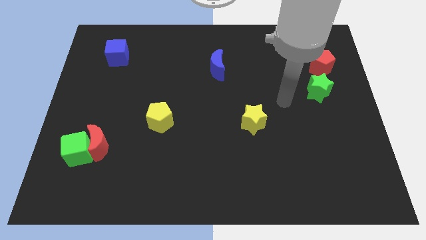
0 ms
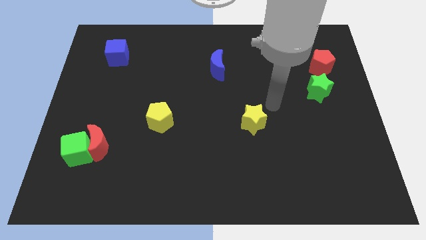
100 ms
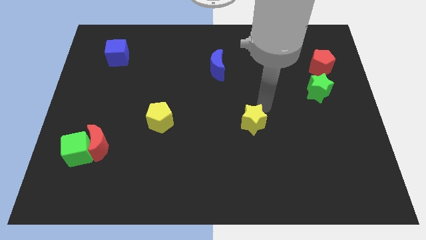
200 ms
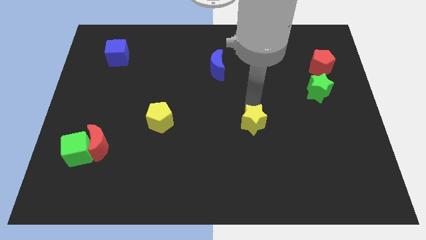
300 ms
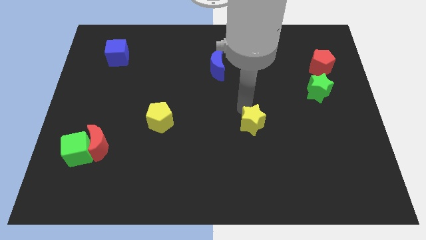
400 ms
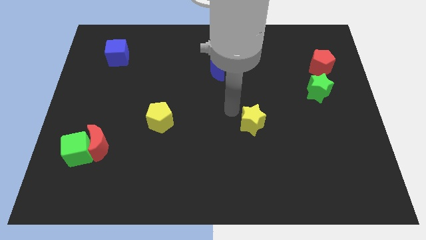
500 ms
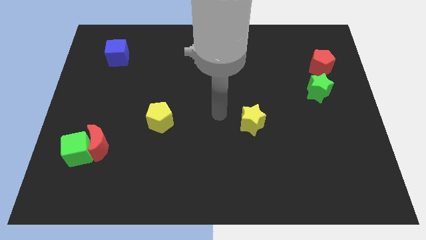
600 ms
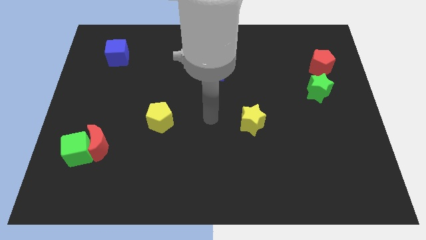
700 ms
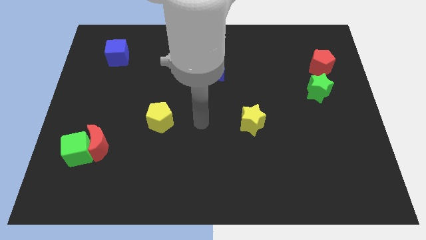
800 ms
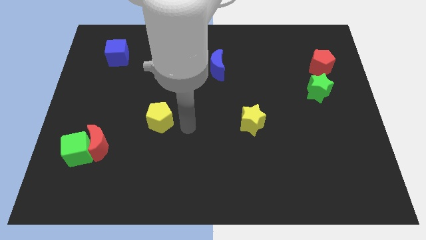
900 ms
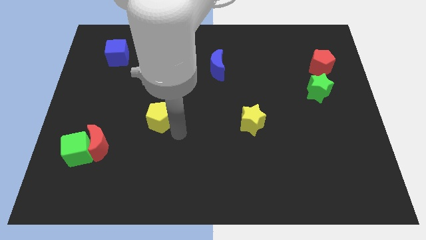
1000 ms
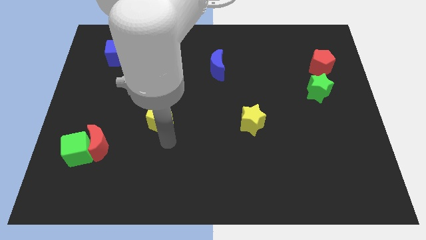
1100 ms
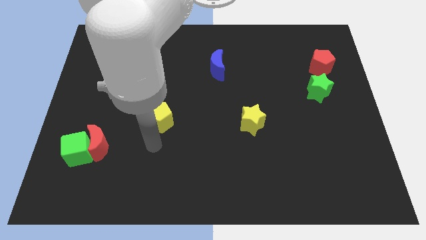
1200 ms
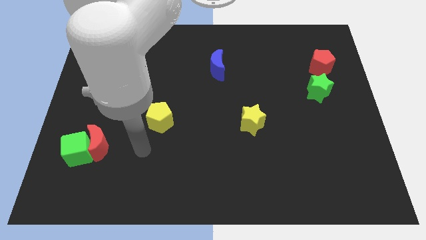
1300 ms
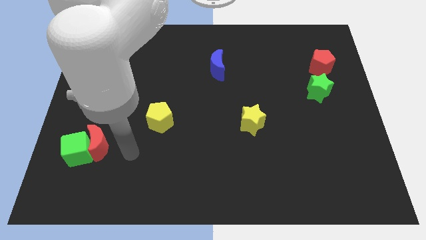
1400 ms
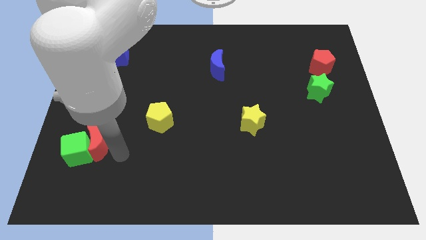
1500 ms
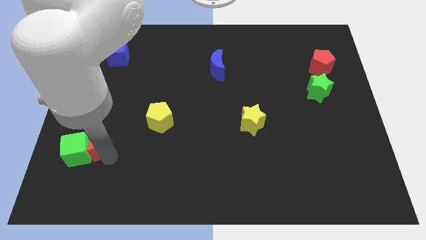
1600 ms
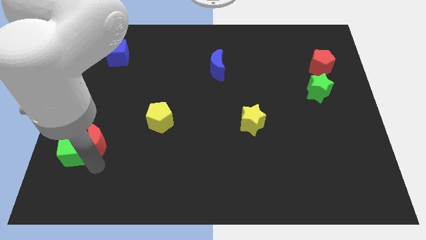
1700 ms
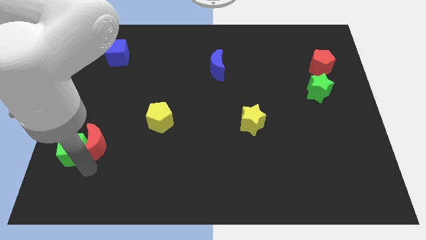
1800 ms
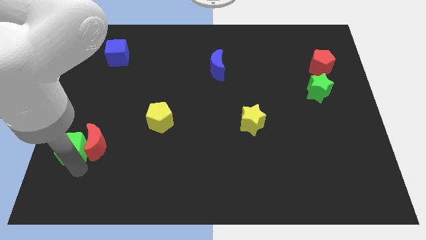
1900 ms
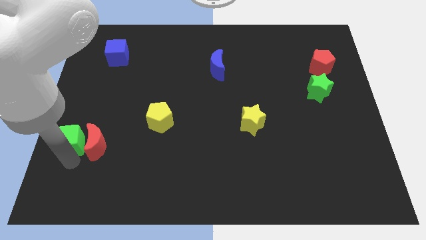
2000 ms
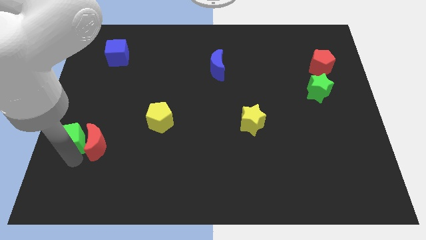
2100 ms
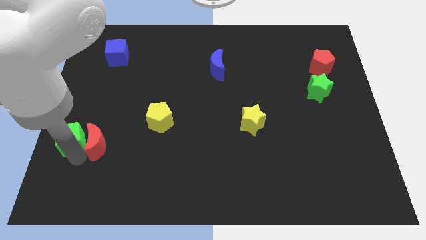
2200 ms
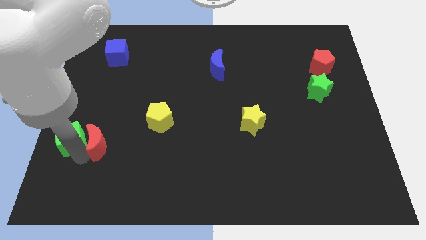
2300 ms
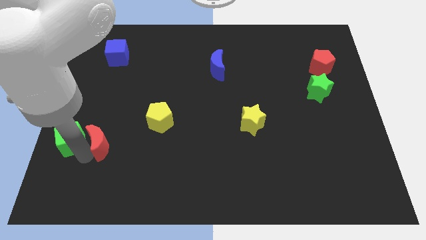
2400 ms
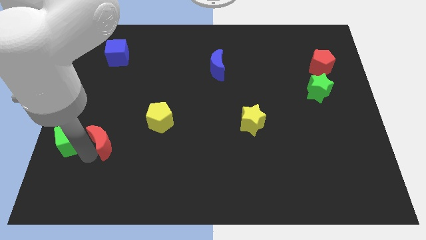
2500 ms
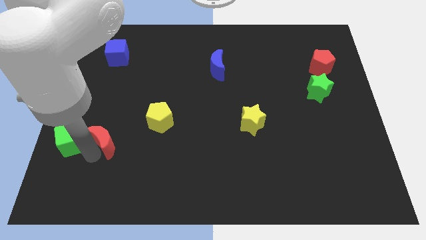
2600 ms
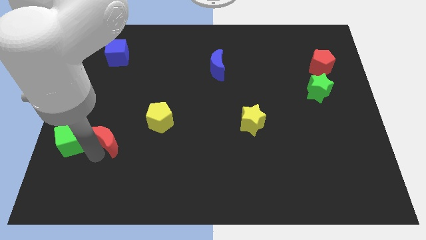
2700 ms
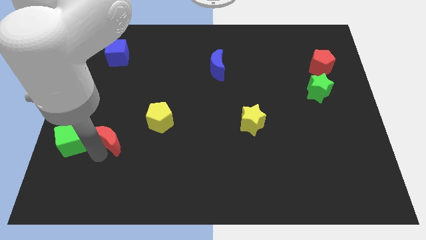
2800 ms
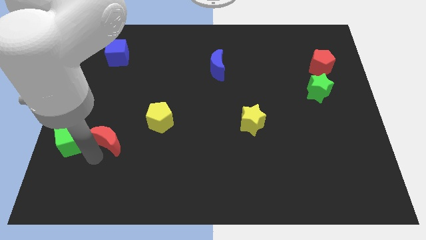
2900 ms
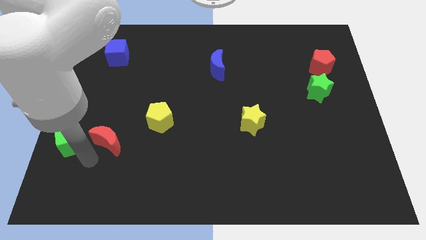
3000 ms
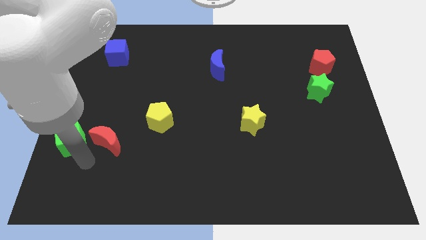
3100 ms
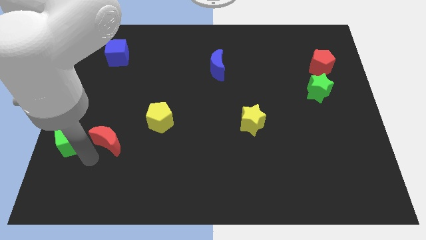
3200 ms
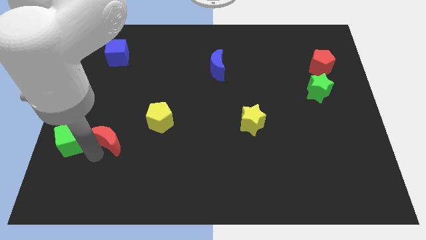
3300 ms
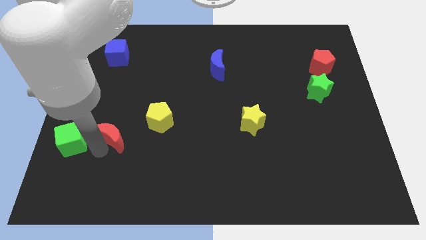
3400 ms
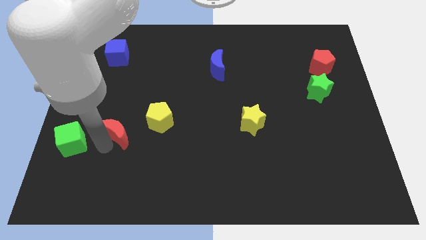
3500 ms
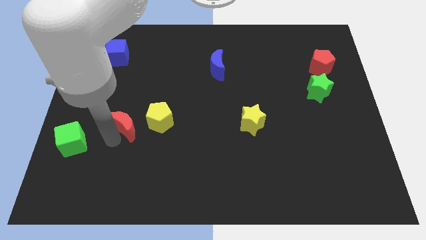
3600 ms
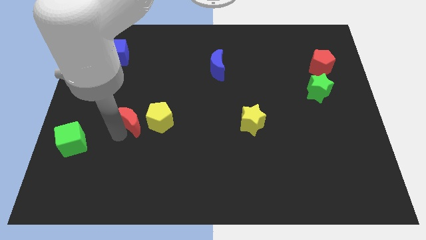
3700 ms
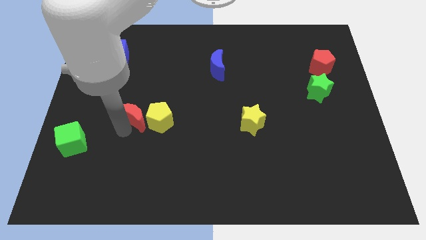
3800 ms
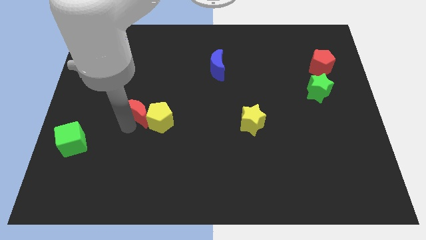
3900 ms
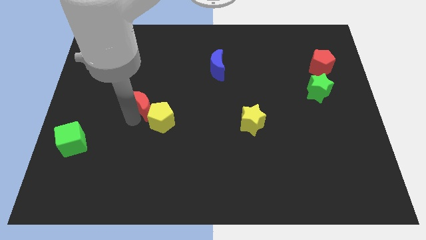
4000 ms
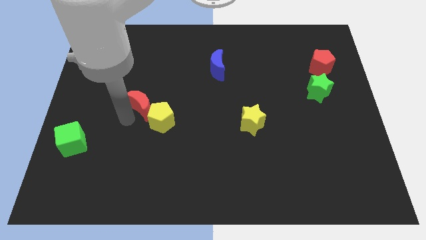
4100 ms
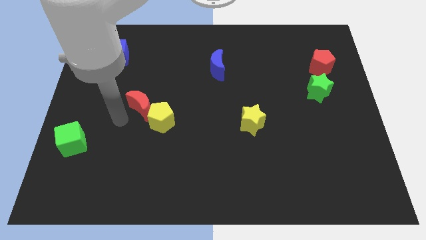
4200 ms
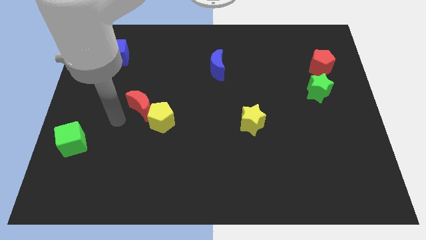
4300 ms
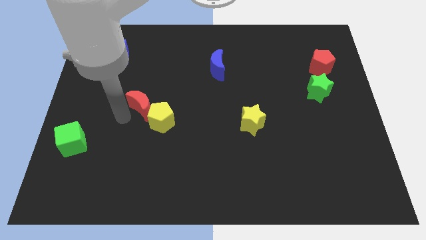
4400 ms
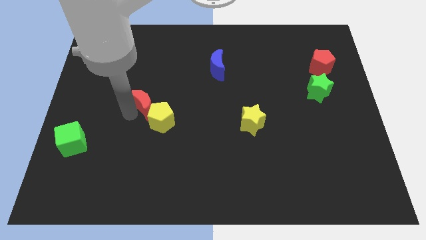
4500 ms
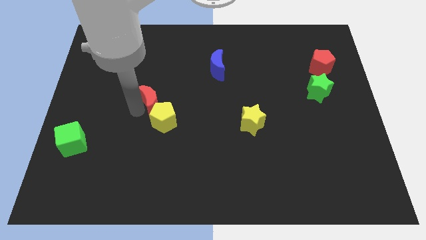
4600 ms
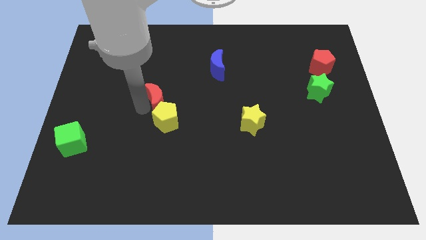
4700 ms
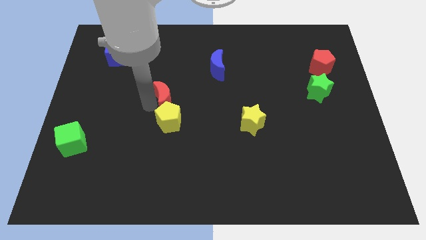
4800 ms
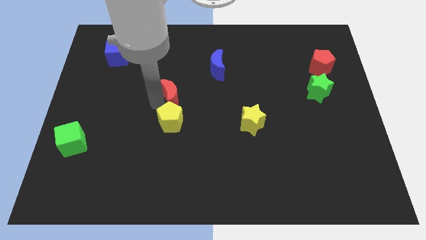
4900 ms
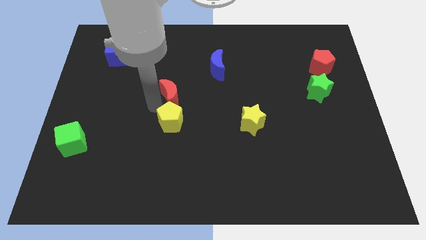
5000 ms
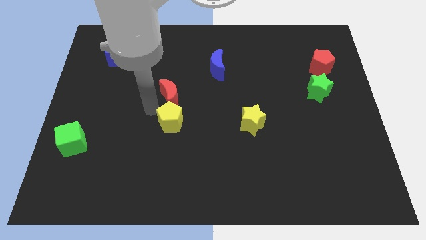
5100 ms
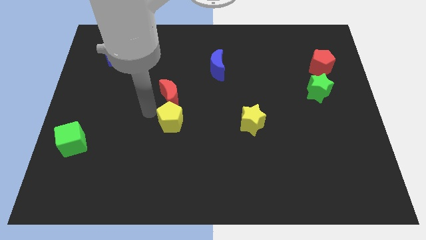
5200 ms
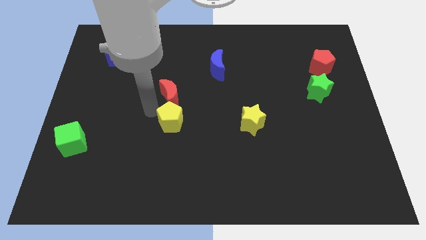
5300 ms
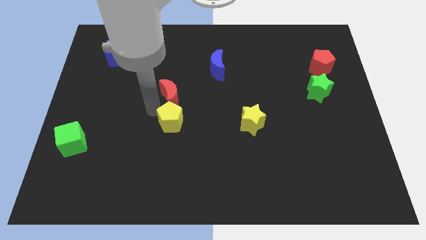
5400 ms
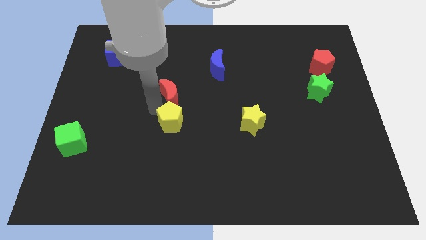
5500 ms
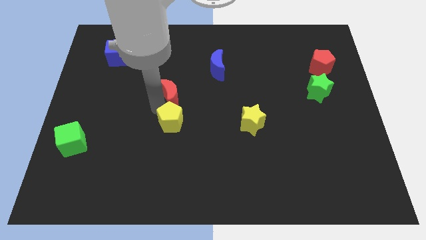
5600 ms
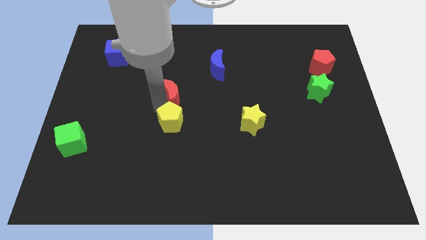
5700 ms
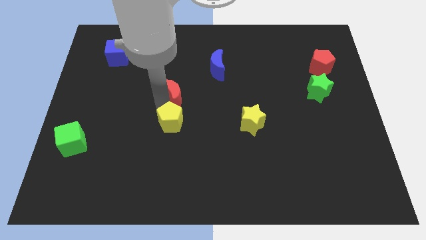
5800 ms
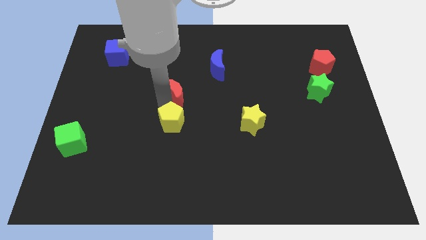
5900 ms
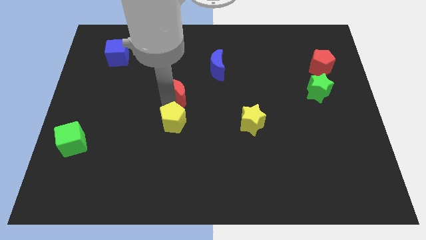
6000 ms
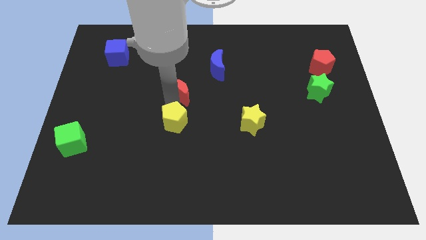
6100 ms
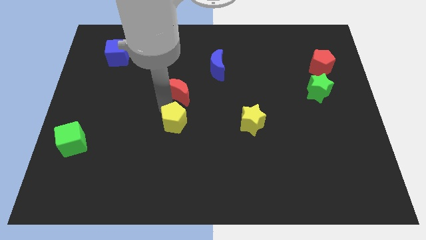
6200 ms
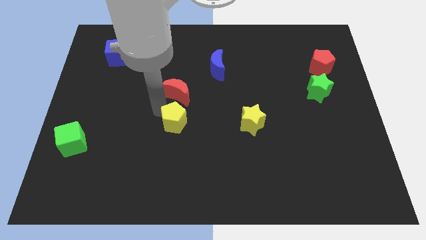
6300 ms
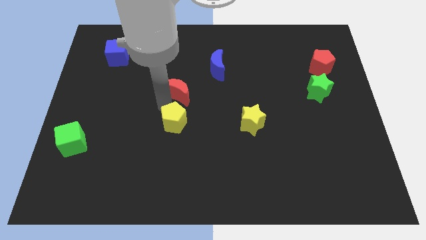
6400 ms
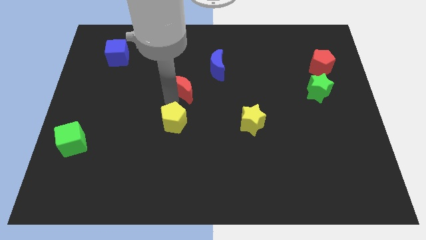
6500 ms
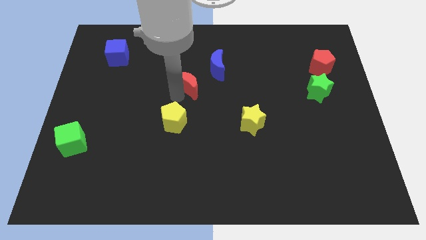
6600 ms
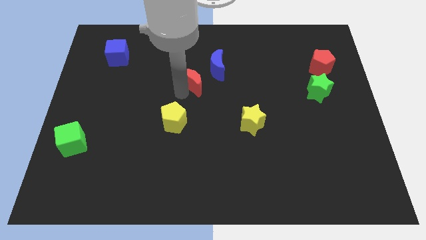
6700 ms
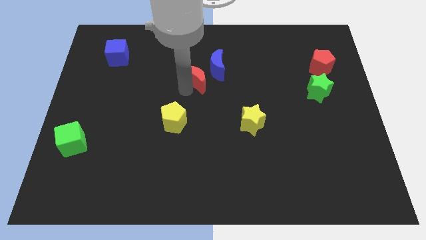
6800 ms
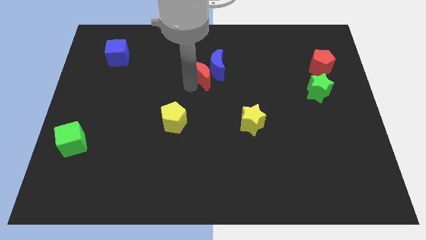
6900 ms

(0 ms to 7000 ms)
put the red moon to the blue moon

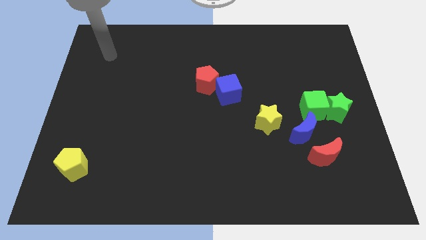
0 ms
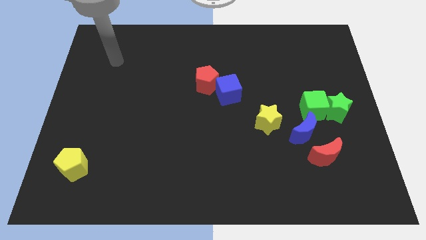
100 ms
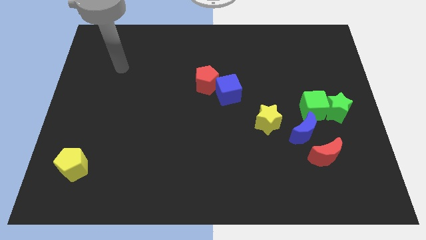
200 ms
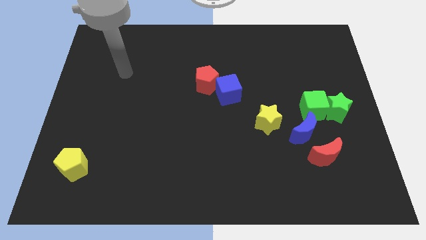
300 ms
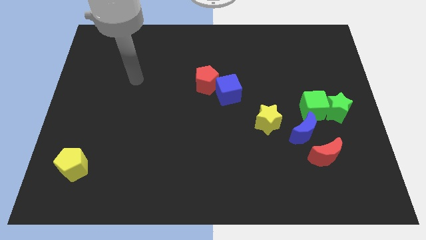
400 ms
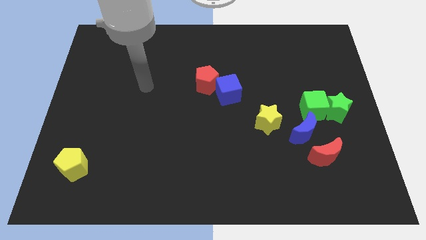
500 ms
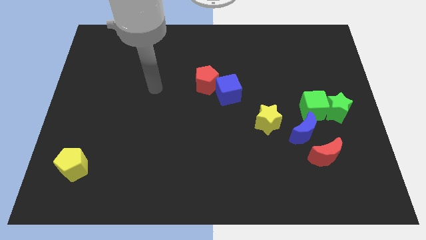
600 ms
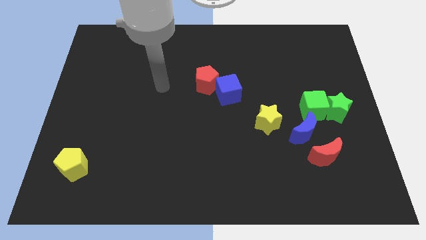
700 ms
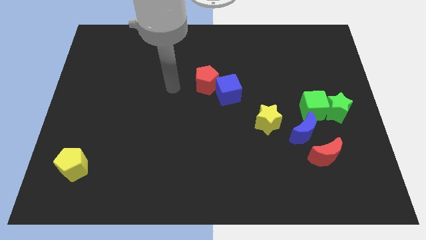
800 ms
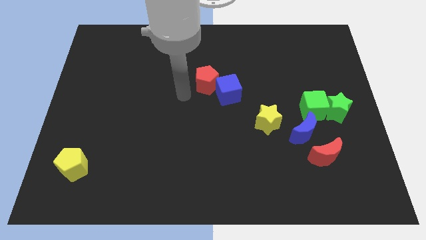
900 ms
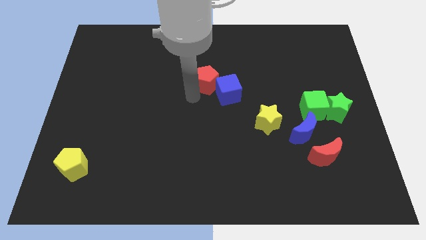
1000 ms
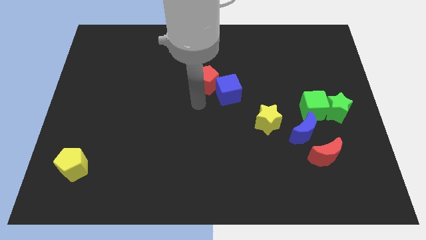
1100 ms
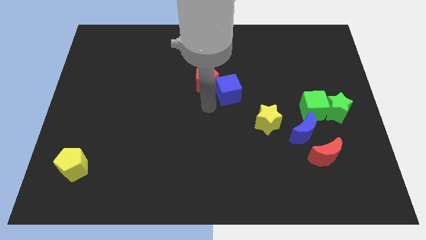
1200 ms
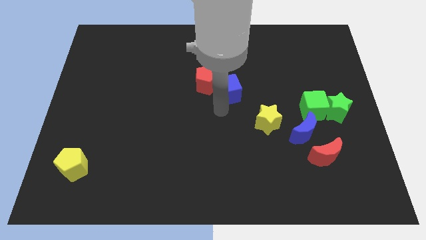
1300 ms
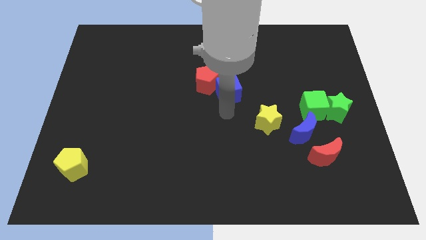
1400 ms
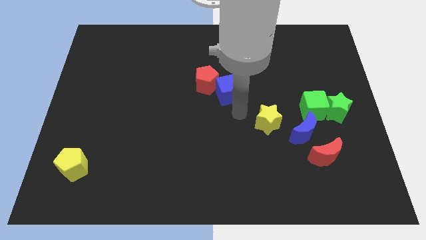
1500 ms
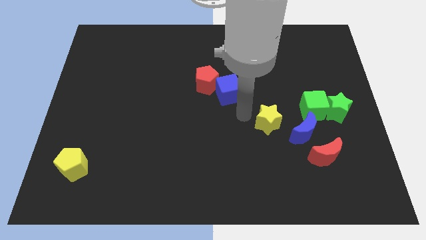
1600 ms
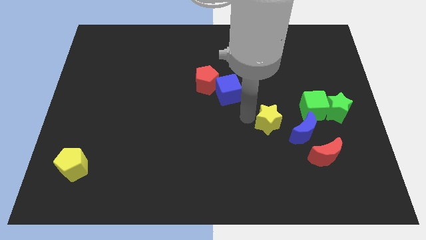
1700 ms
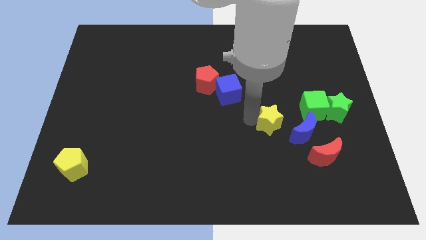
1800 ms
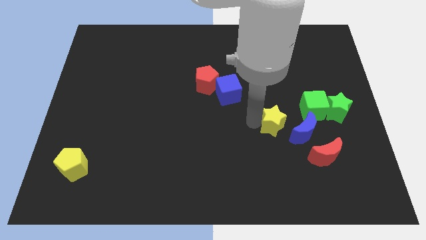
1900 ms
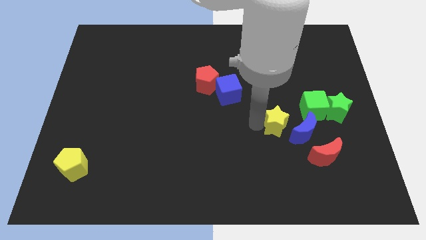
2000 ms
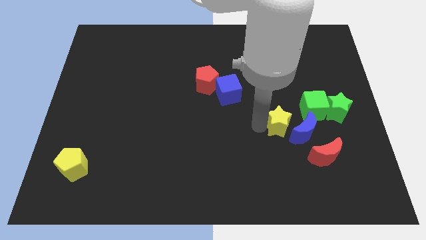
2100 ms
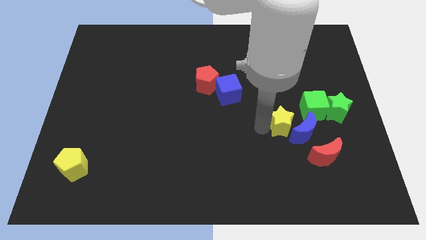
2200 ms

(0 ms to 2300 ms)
slide the yellow star close to the blue moon
